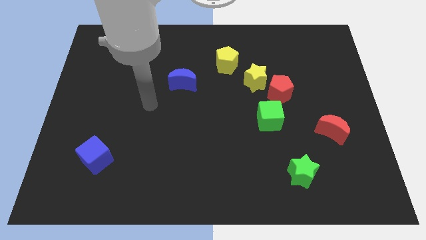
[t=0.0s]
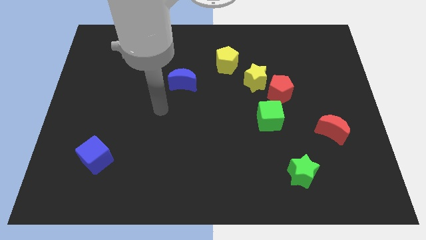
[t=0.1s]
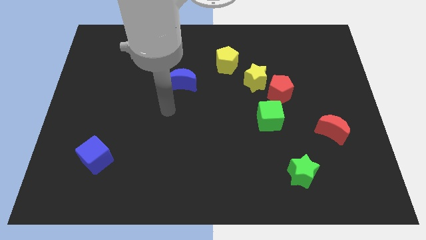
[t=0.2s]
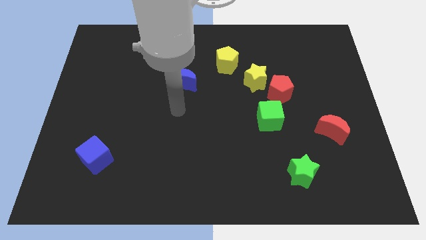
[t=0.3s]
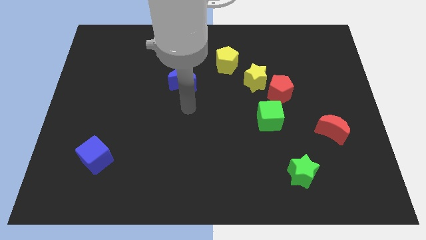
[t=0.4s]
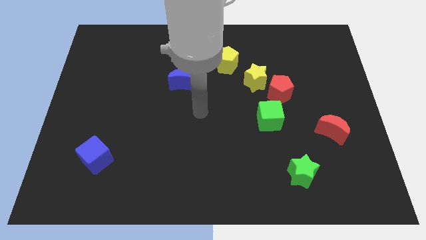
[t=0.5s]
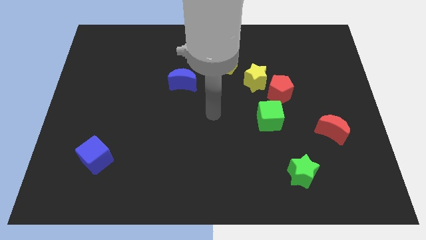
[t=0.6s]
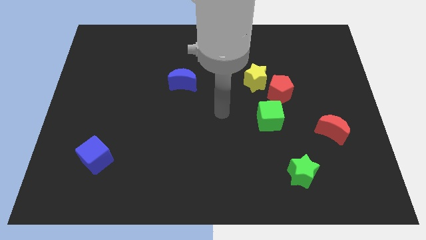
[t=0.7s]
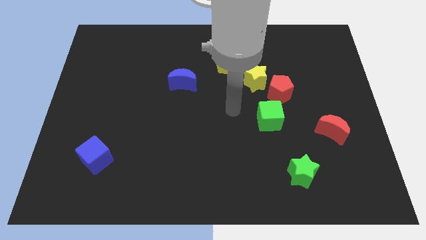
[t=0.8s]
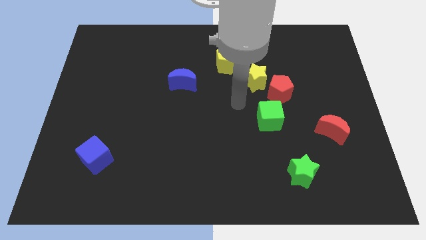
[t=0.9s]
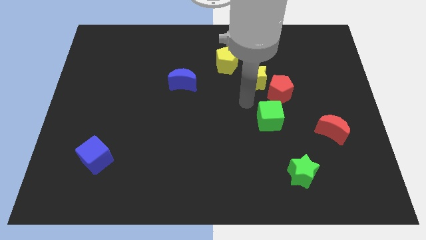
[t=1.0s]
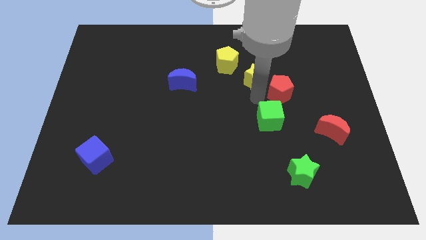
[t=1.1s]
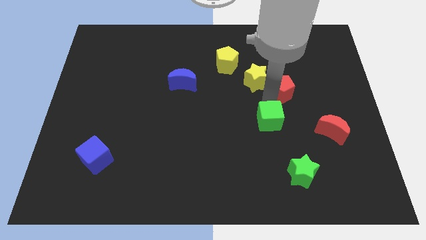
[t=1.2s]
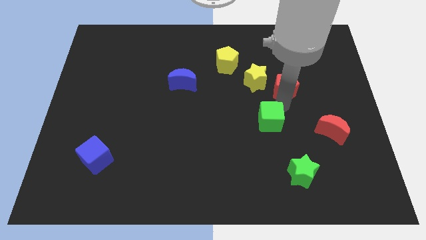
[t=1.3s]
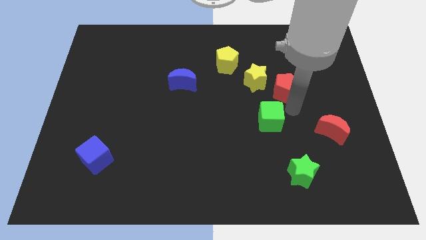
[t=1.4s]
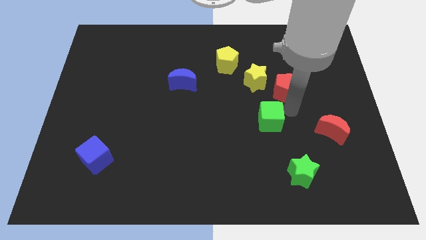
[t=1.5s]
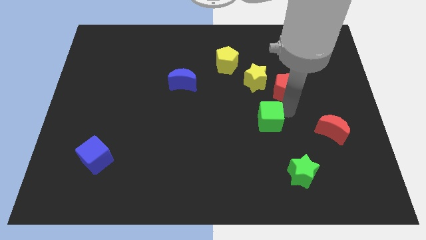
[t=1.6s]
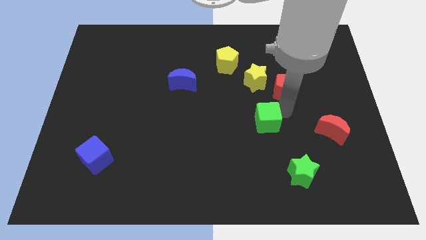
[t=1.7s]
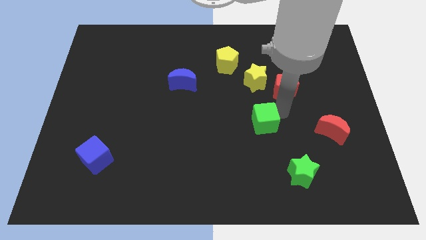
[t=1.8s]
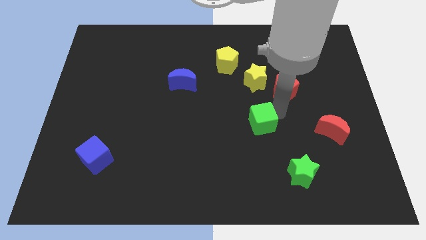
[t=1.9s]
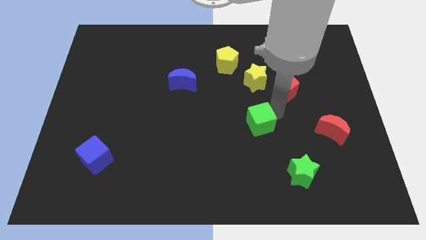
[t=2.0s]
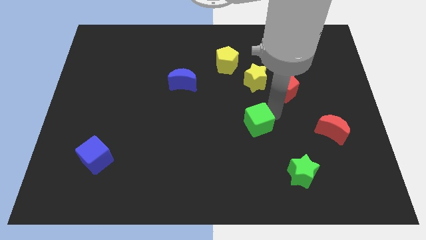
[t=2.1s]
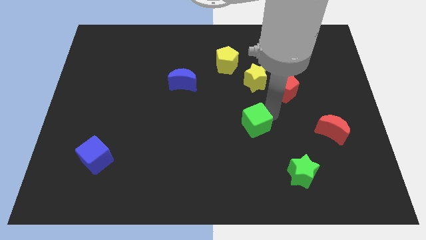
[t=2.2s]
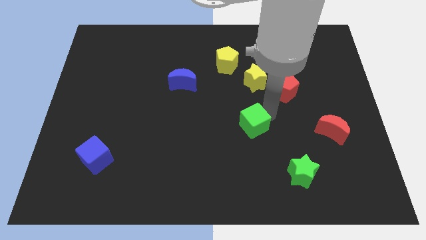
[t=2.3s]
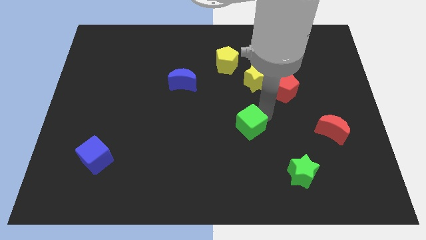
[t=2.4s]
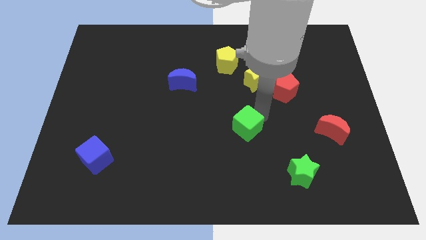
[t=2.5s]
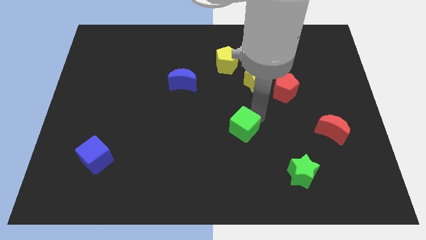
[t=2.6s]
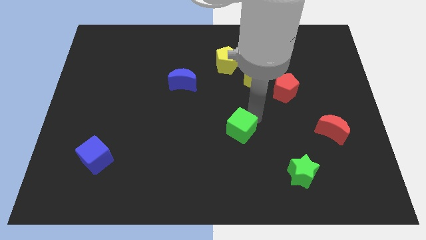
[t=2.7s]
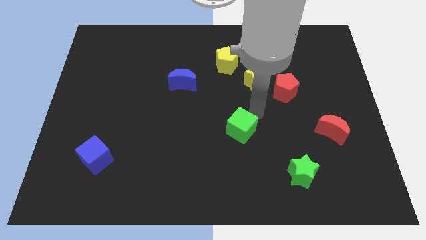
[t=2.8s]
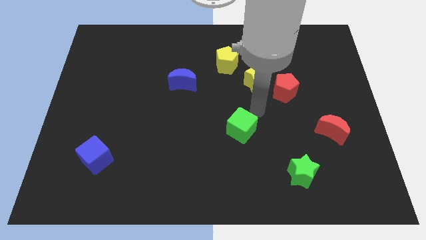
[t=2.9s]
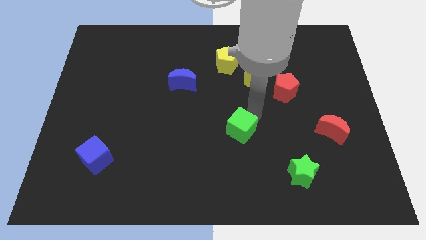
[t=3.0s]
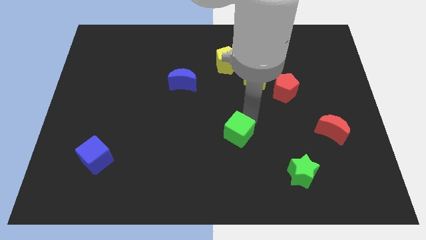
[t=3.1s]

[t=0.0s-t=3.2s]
move the green cube a little down and left

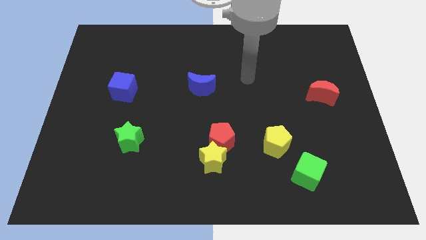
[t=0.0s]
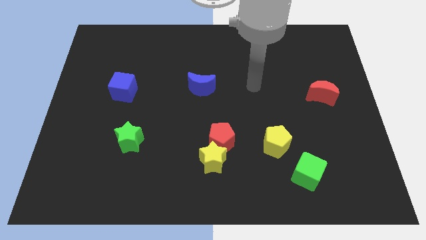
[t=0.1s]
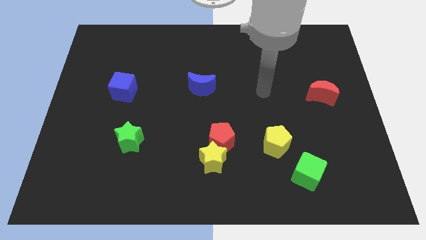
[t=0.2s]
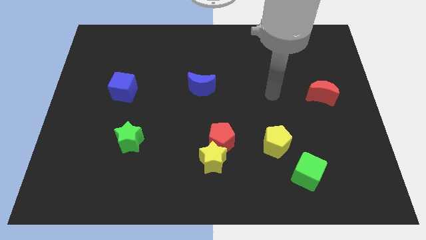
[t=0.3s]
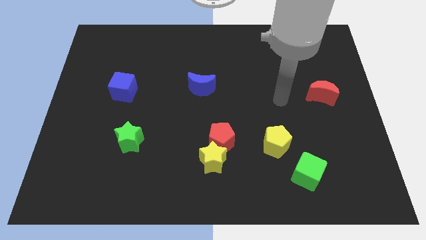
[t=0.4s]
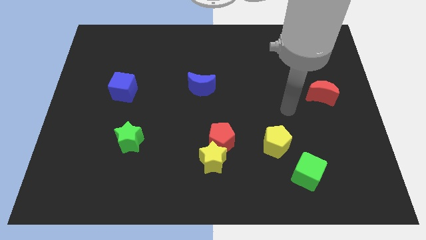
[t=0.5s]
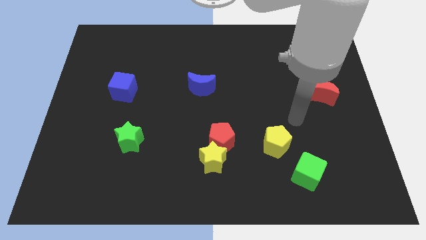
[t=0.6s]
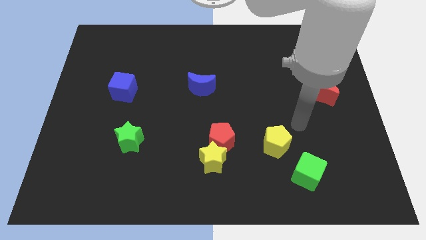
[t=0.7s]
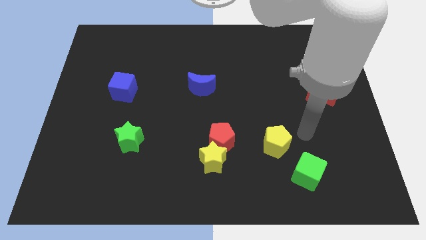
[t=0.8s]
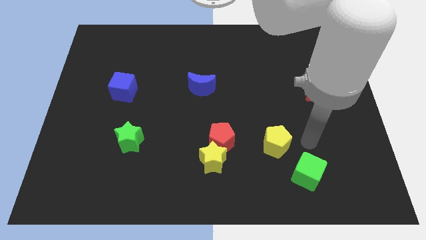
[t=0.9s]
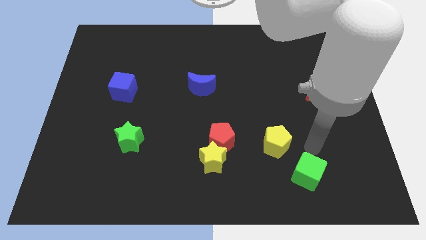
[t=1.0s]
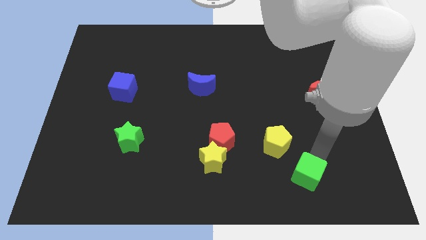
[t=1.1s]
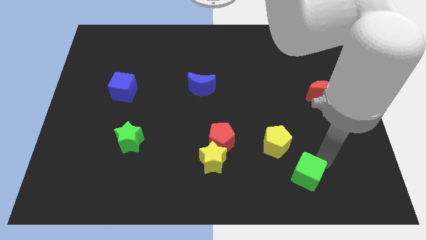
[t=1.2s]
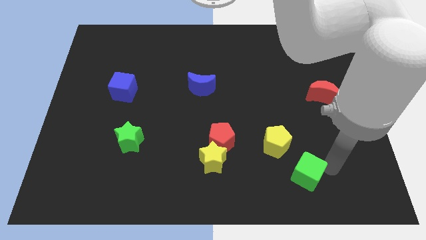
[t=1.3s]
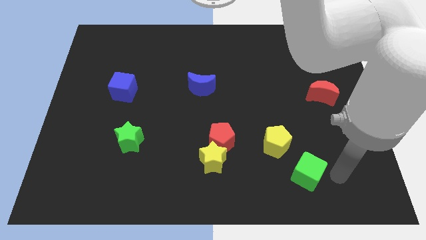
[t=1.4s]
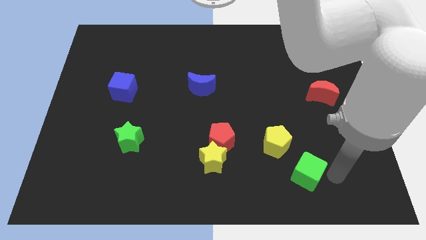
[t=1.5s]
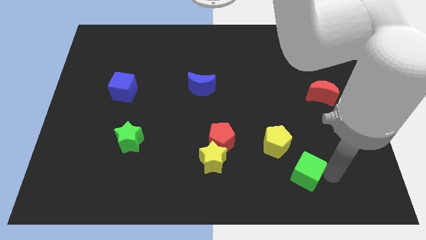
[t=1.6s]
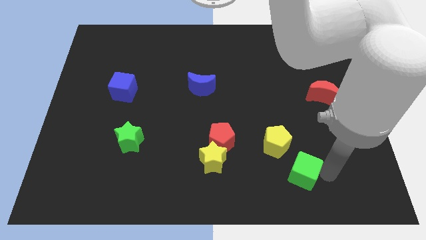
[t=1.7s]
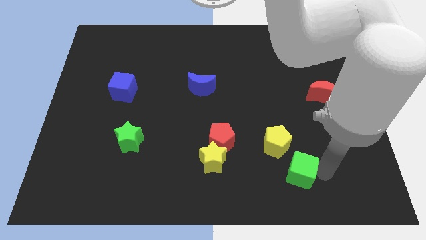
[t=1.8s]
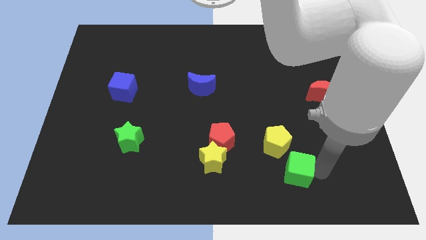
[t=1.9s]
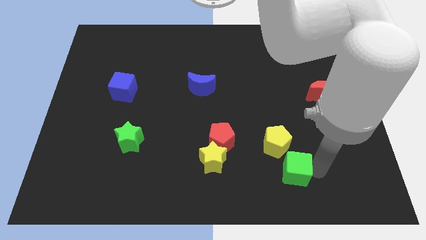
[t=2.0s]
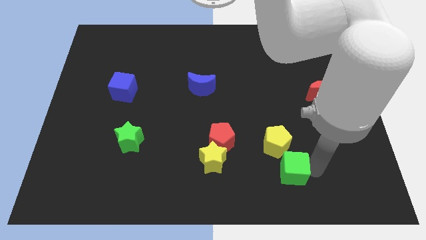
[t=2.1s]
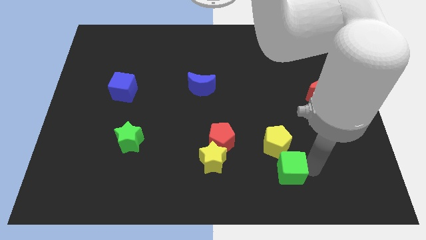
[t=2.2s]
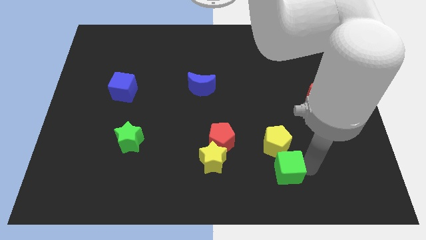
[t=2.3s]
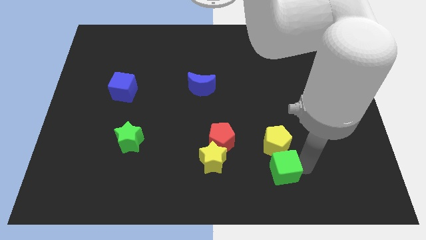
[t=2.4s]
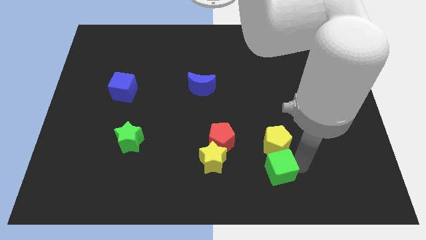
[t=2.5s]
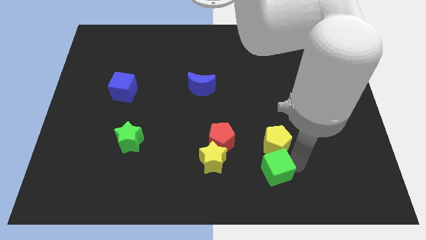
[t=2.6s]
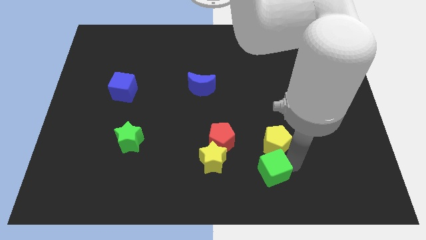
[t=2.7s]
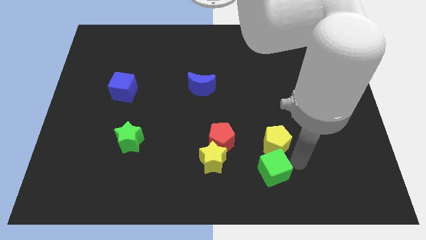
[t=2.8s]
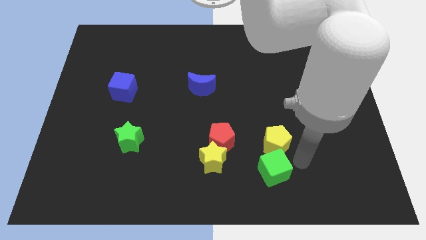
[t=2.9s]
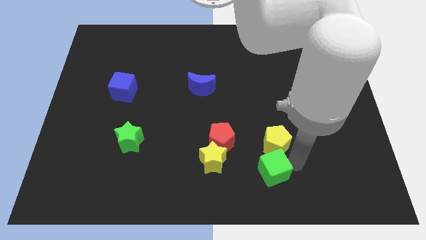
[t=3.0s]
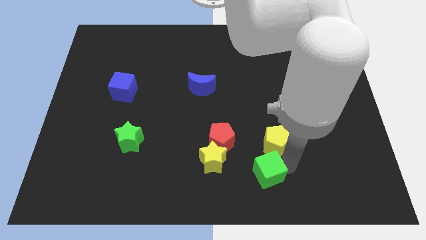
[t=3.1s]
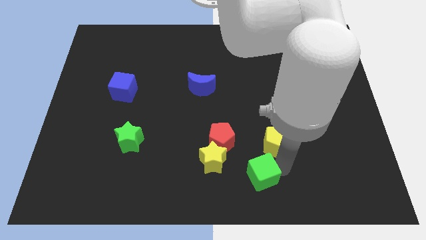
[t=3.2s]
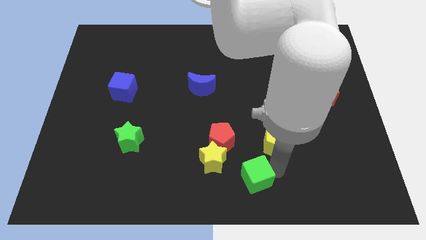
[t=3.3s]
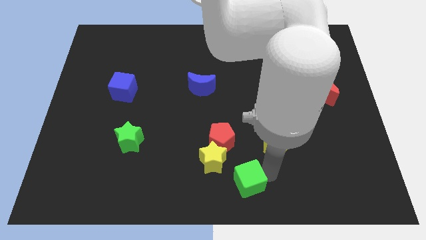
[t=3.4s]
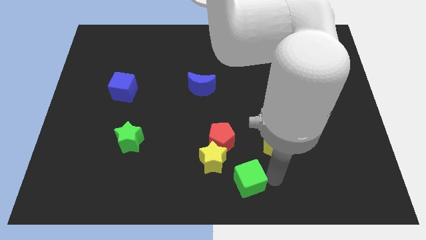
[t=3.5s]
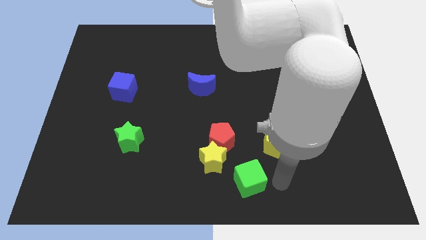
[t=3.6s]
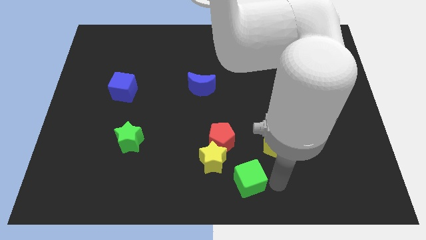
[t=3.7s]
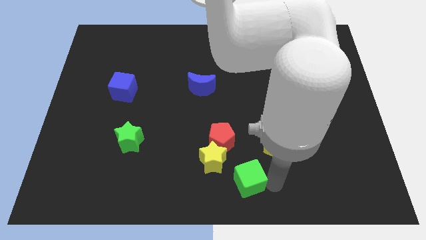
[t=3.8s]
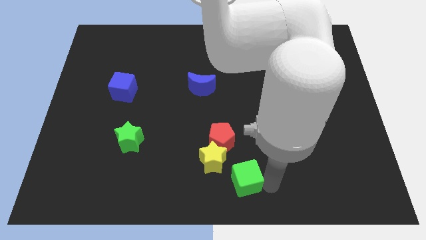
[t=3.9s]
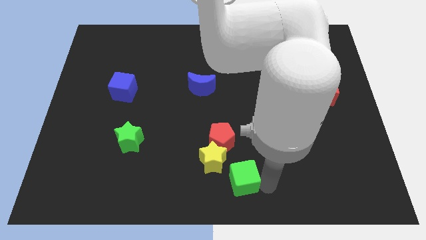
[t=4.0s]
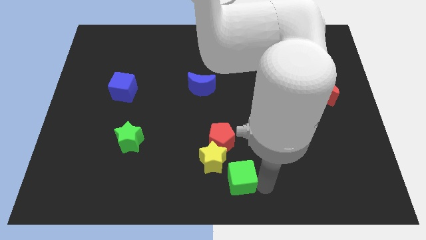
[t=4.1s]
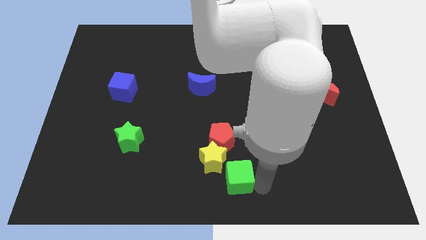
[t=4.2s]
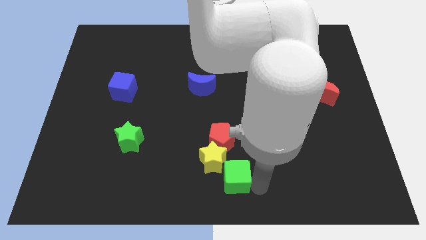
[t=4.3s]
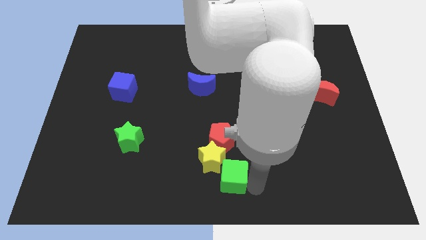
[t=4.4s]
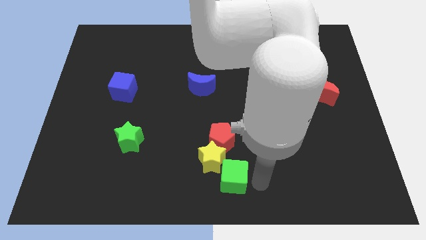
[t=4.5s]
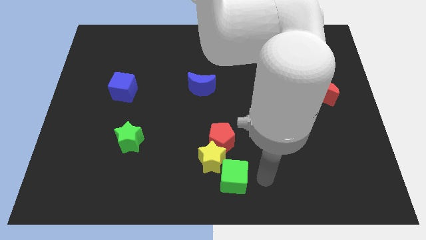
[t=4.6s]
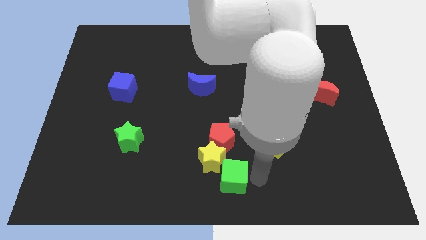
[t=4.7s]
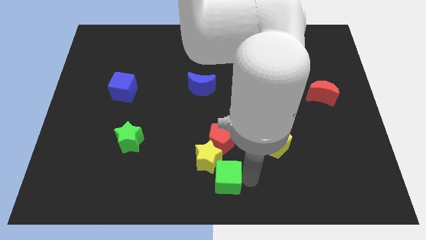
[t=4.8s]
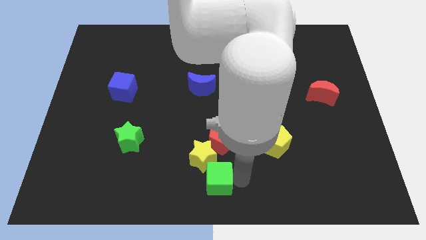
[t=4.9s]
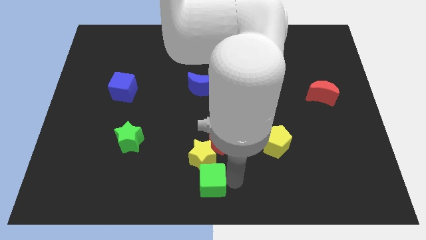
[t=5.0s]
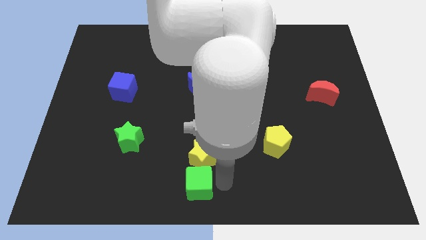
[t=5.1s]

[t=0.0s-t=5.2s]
slide the green cube to the left
